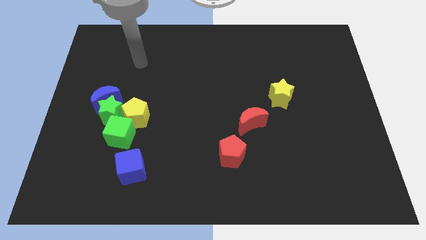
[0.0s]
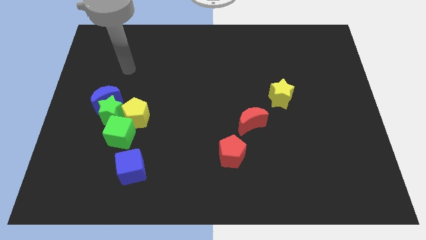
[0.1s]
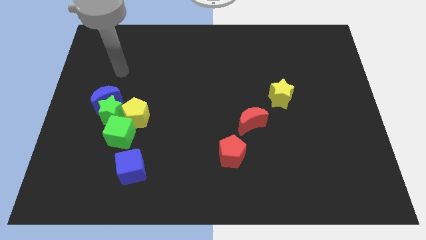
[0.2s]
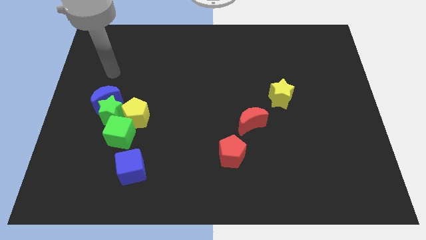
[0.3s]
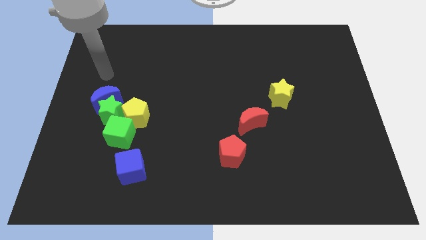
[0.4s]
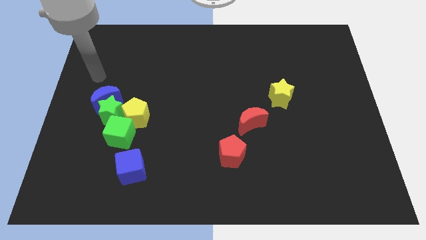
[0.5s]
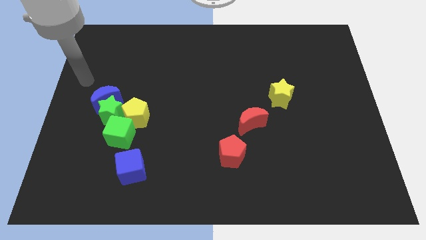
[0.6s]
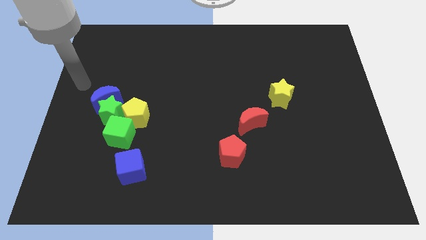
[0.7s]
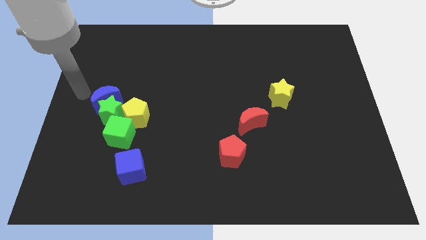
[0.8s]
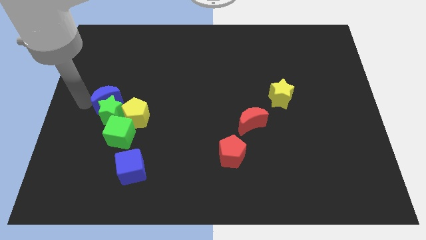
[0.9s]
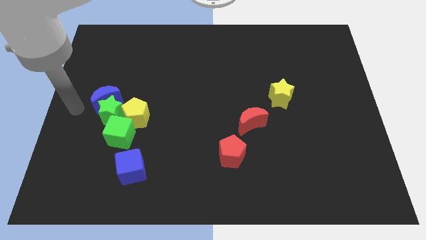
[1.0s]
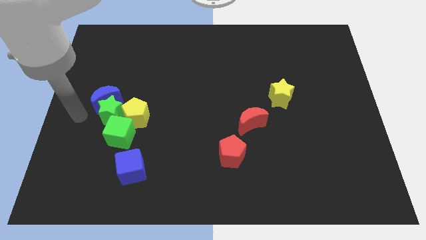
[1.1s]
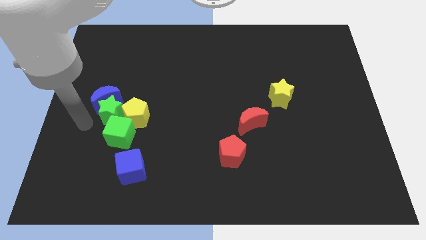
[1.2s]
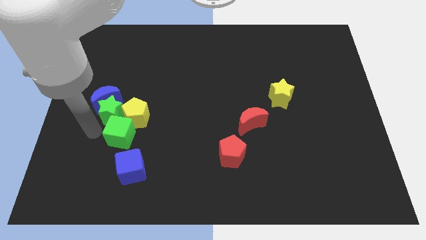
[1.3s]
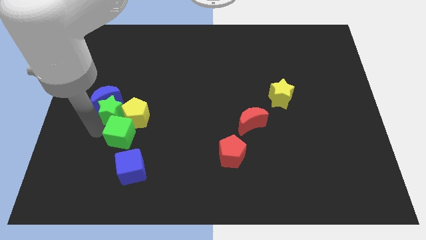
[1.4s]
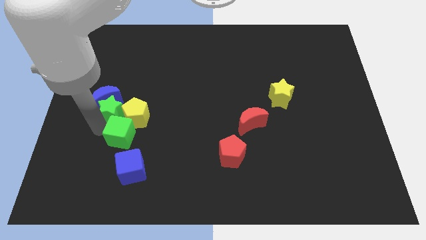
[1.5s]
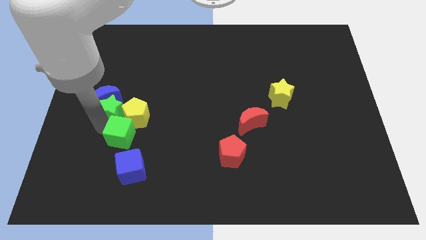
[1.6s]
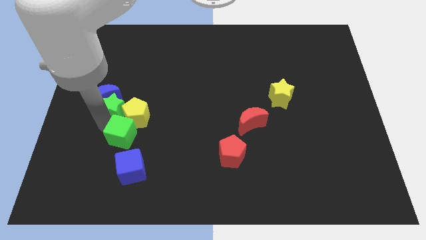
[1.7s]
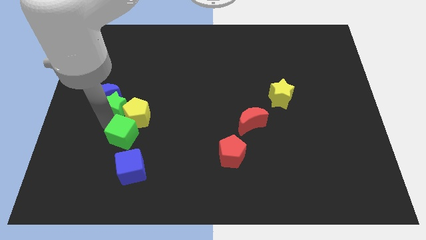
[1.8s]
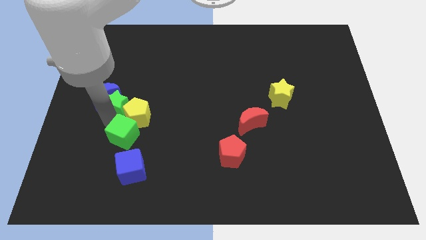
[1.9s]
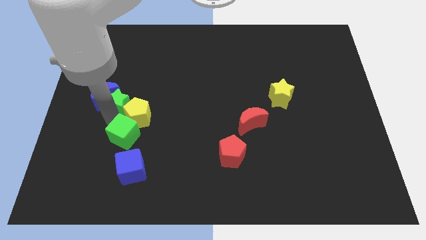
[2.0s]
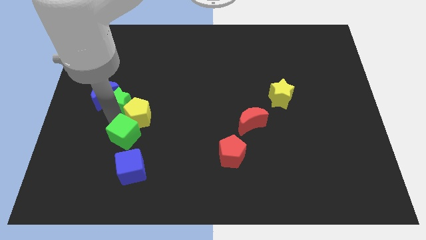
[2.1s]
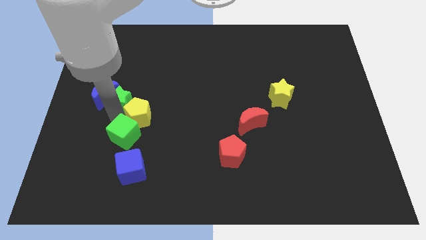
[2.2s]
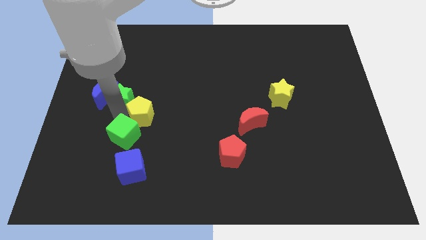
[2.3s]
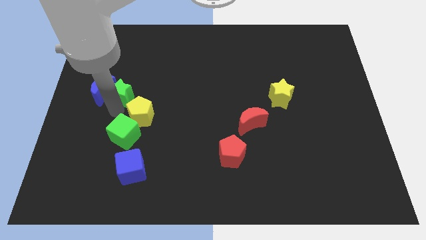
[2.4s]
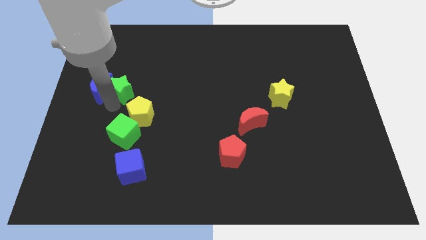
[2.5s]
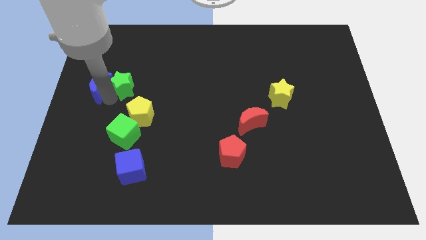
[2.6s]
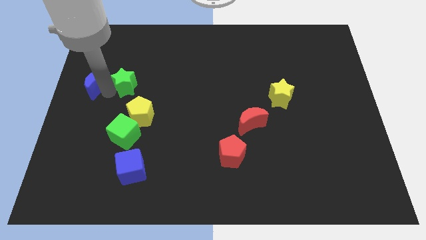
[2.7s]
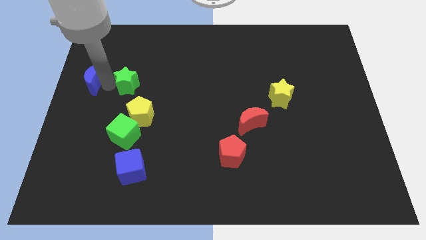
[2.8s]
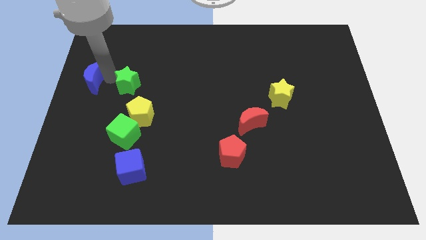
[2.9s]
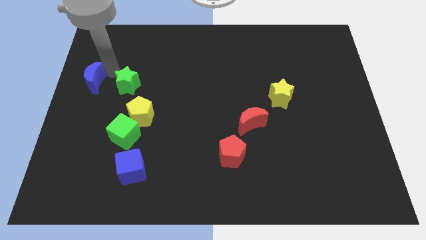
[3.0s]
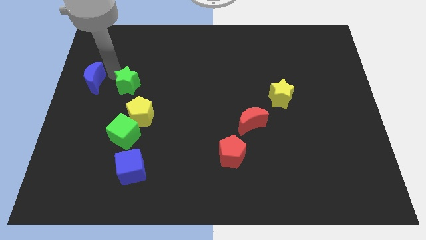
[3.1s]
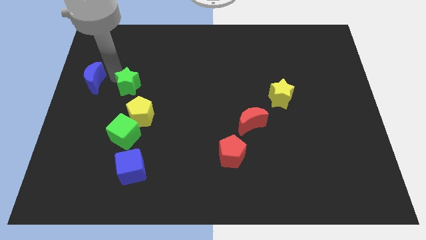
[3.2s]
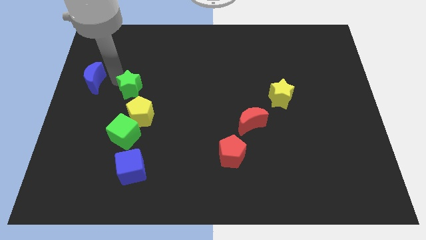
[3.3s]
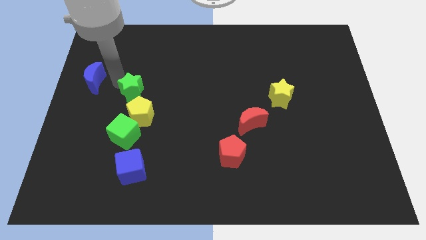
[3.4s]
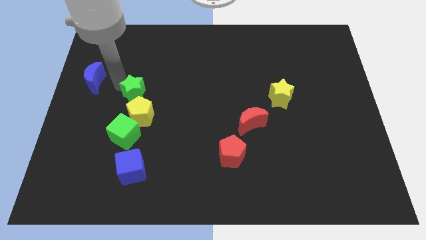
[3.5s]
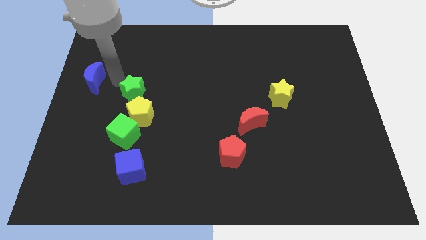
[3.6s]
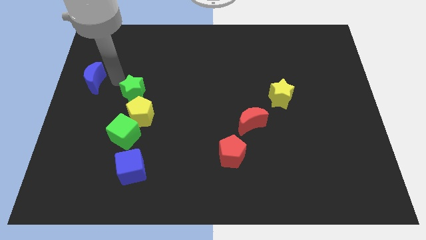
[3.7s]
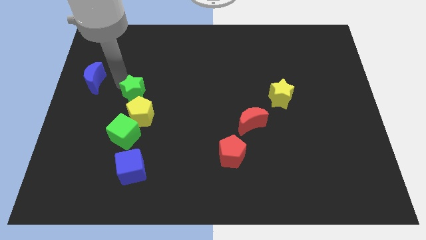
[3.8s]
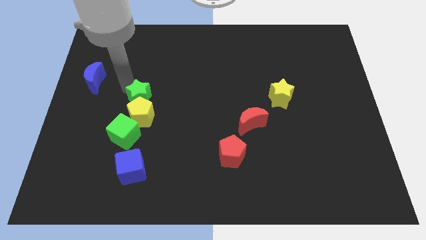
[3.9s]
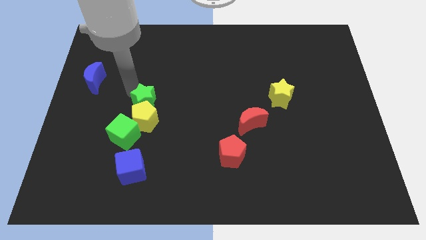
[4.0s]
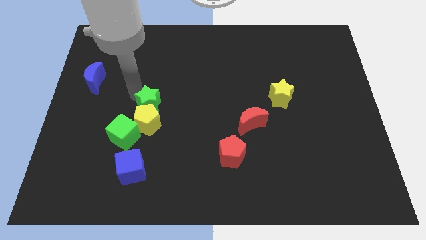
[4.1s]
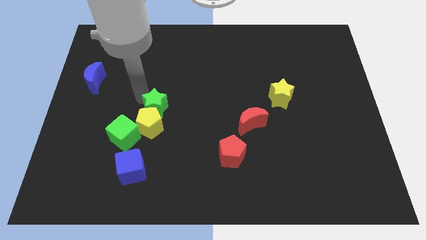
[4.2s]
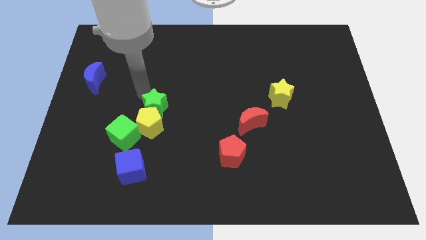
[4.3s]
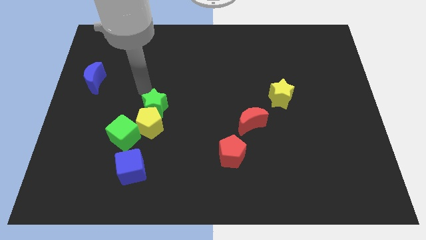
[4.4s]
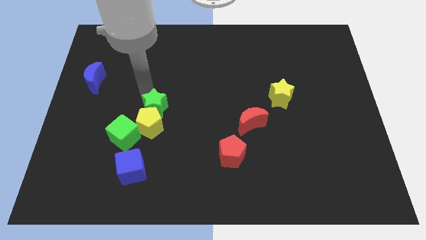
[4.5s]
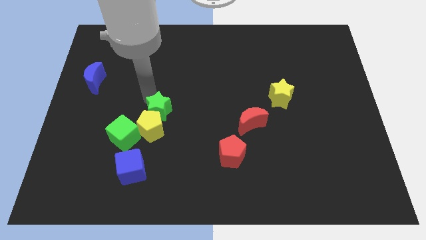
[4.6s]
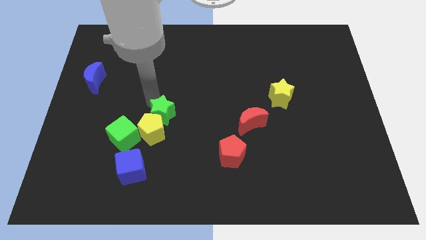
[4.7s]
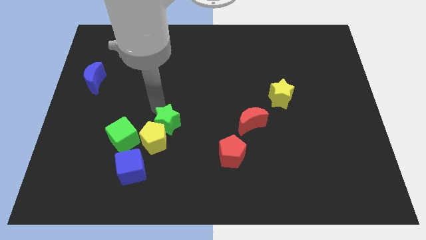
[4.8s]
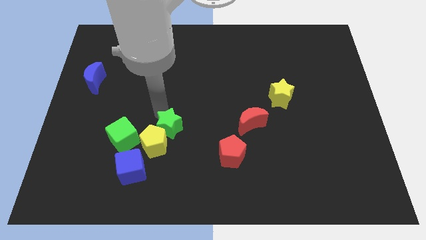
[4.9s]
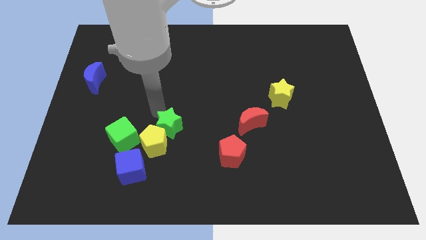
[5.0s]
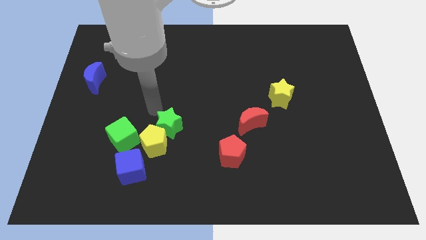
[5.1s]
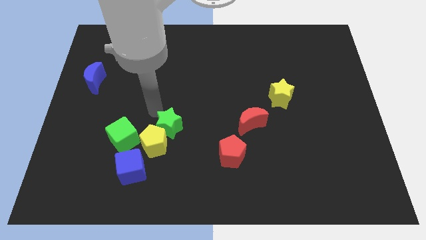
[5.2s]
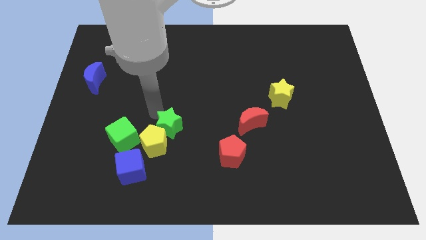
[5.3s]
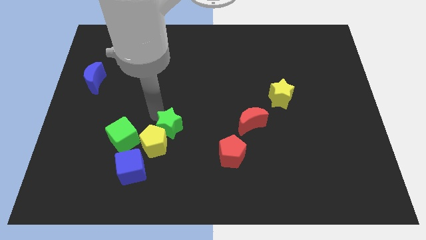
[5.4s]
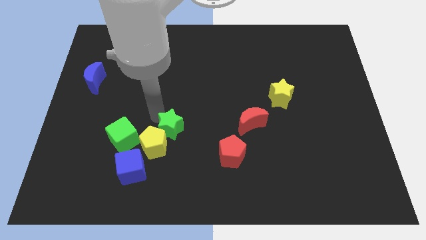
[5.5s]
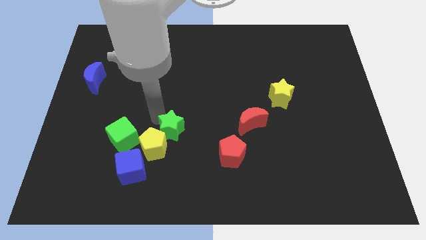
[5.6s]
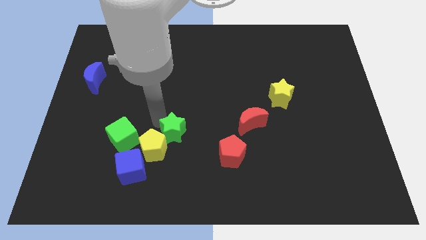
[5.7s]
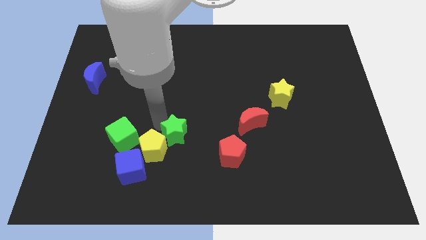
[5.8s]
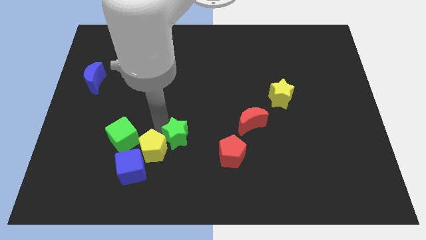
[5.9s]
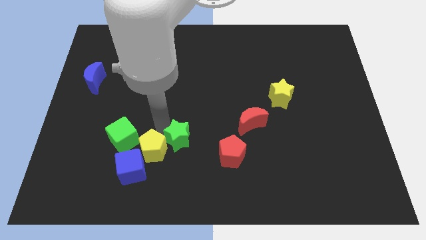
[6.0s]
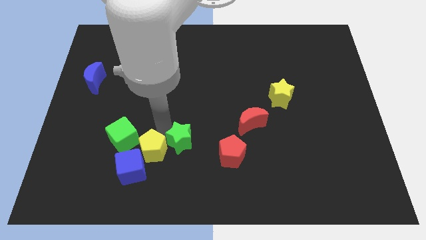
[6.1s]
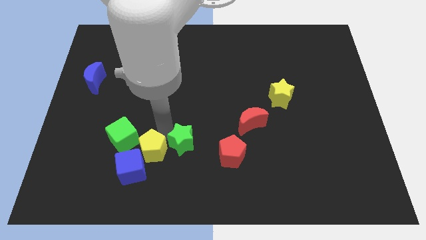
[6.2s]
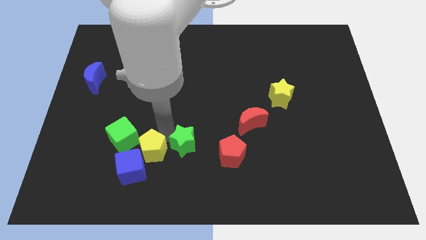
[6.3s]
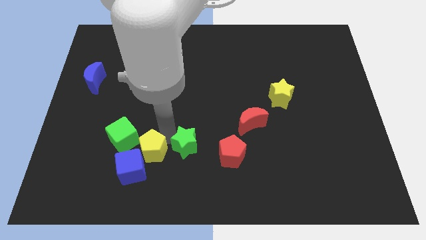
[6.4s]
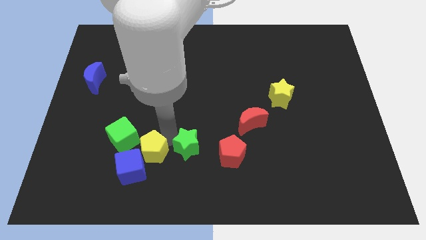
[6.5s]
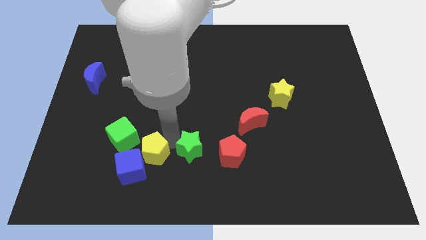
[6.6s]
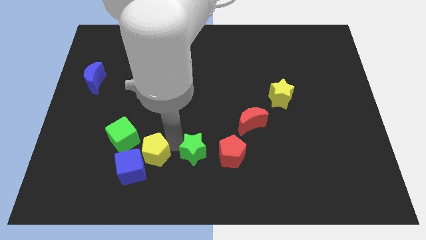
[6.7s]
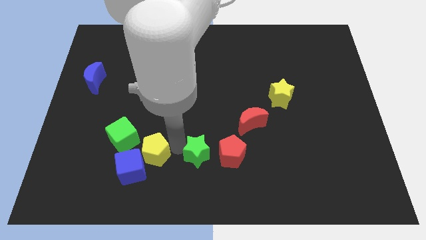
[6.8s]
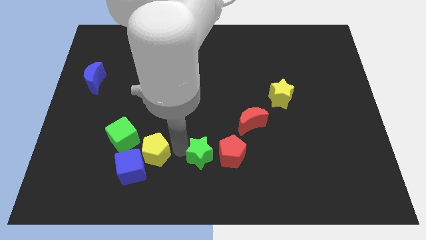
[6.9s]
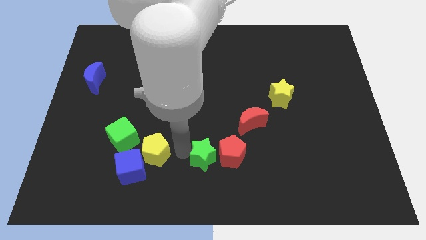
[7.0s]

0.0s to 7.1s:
push the green star towards the red pentagon
